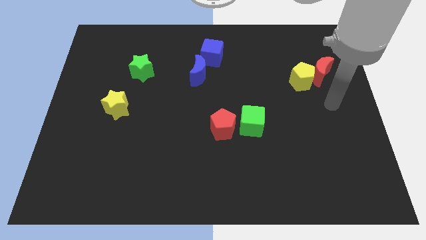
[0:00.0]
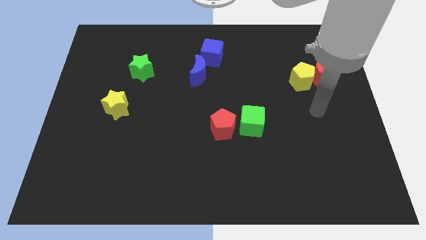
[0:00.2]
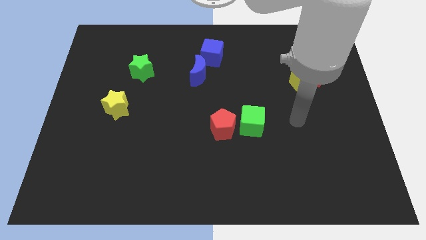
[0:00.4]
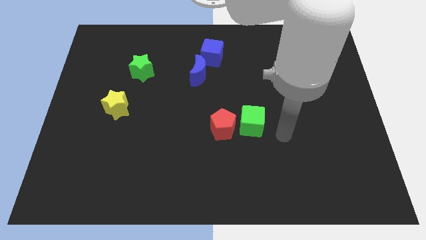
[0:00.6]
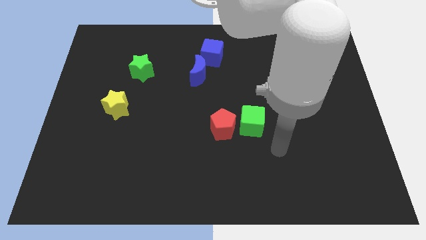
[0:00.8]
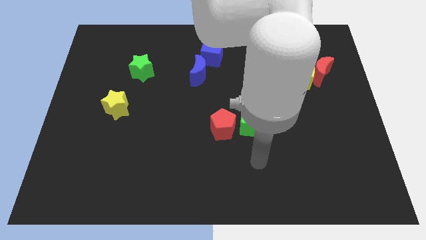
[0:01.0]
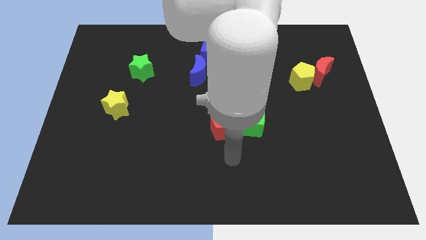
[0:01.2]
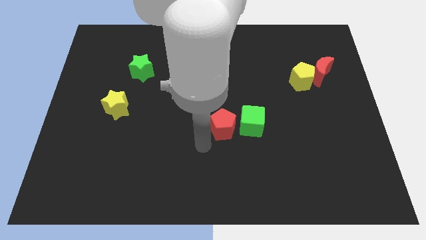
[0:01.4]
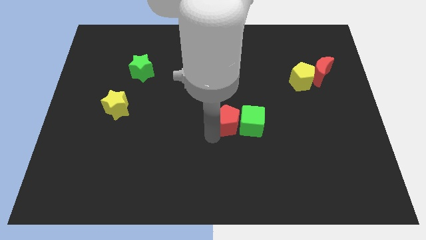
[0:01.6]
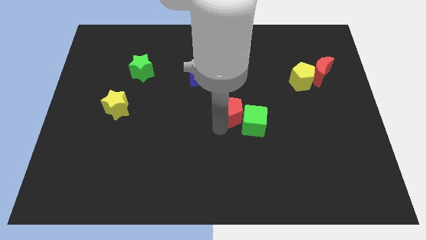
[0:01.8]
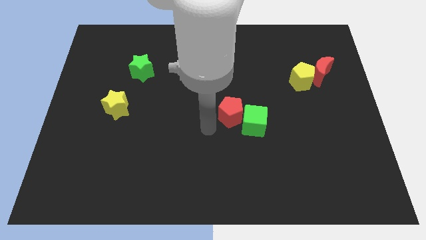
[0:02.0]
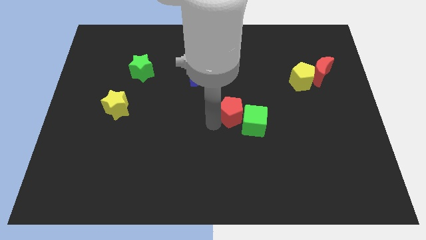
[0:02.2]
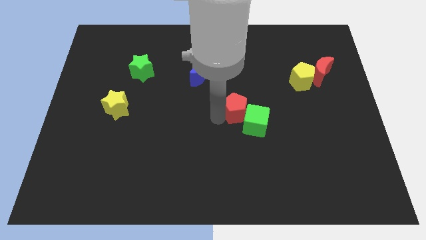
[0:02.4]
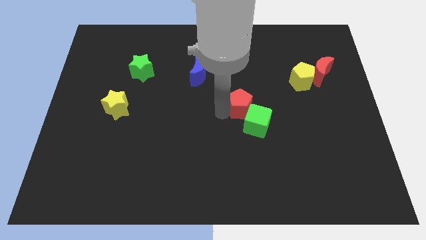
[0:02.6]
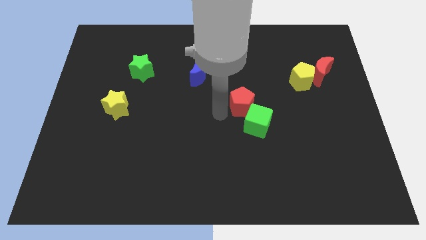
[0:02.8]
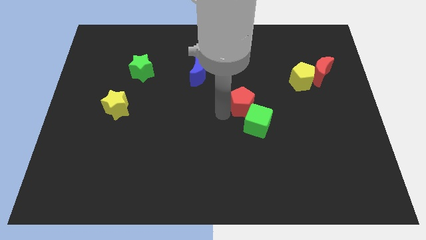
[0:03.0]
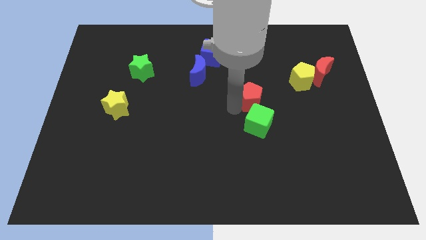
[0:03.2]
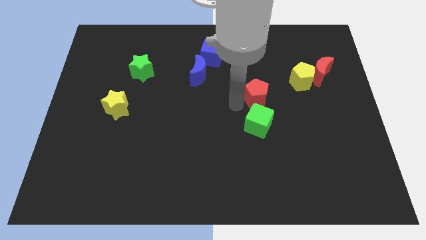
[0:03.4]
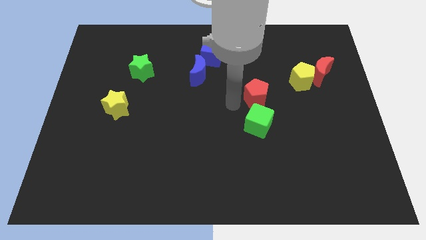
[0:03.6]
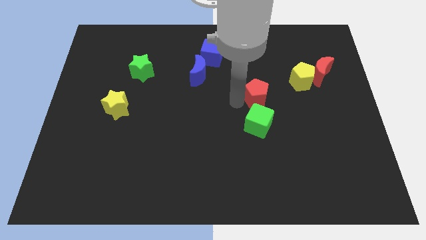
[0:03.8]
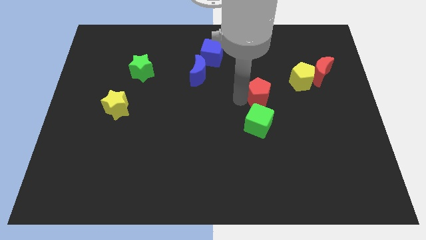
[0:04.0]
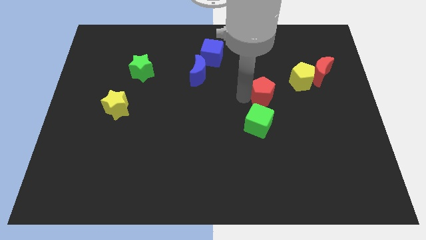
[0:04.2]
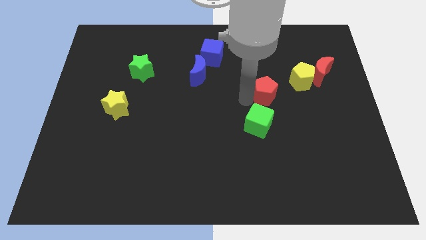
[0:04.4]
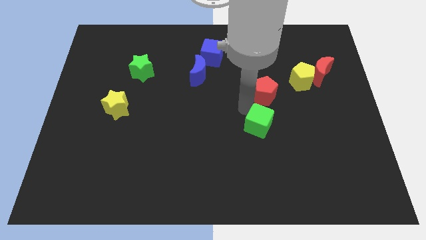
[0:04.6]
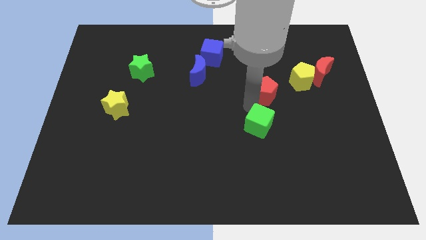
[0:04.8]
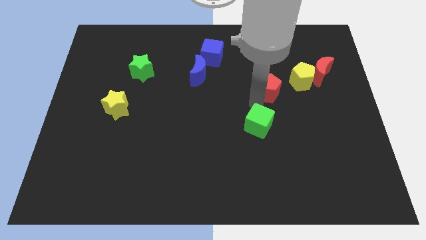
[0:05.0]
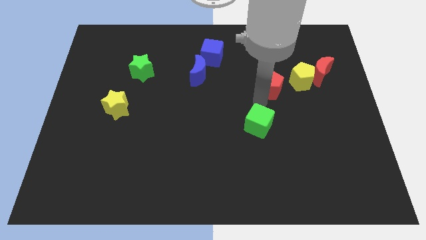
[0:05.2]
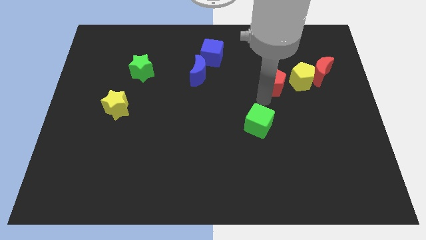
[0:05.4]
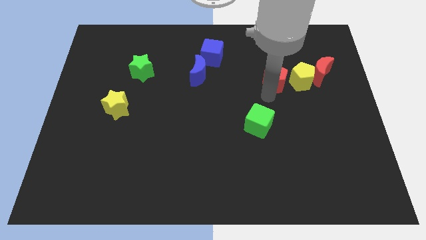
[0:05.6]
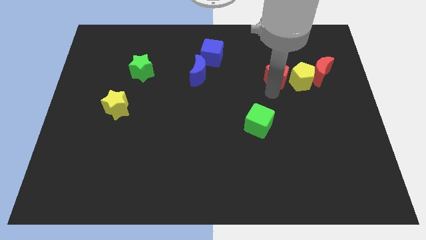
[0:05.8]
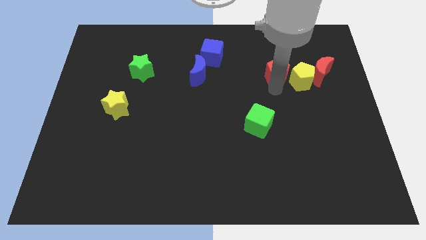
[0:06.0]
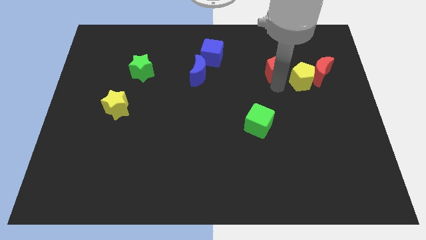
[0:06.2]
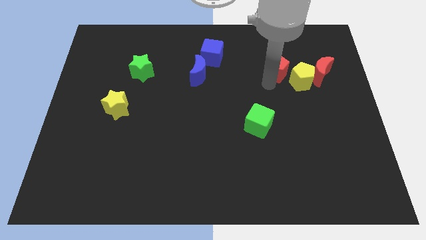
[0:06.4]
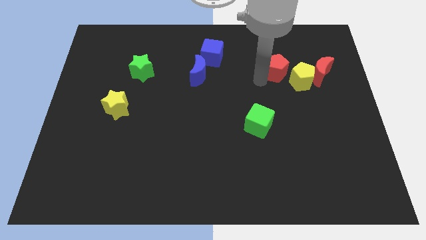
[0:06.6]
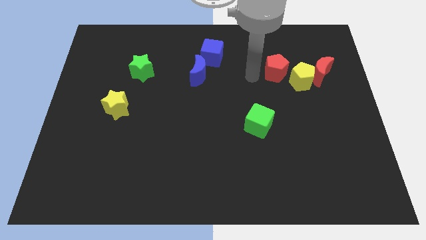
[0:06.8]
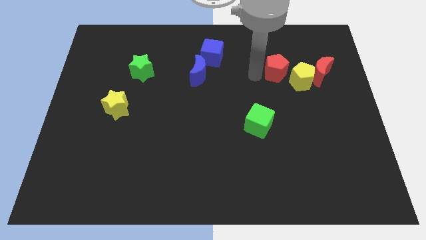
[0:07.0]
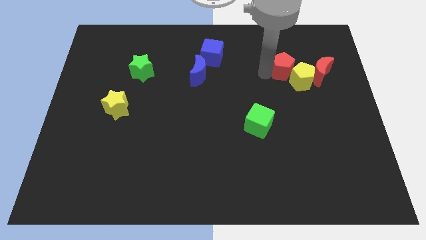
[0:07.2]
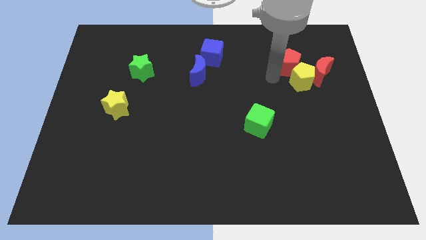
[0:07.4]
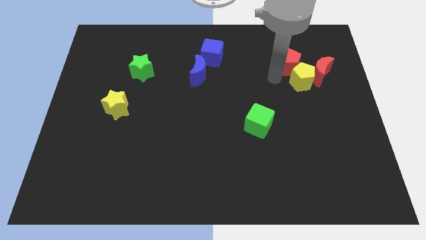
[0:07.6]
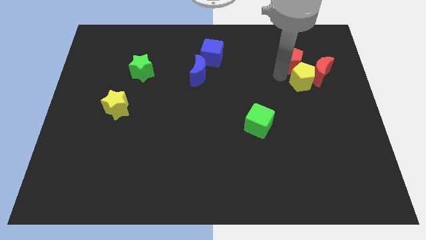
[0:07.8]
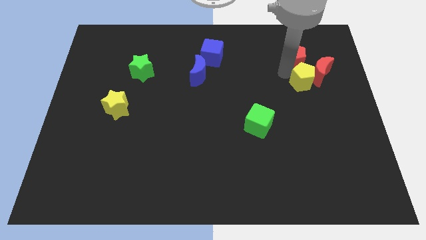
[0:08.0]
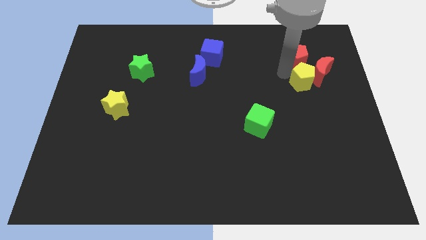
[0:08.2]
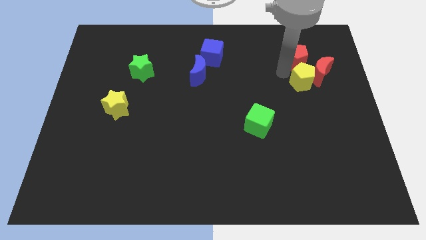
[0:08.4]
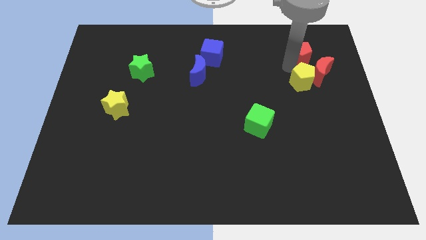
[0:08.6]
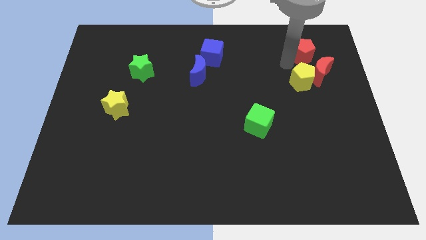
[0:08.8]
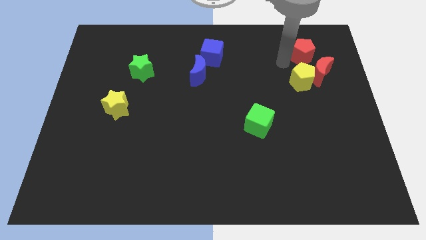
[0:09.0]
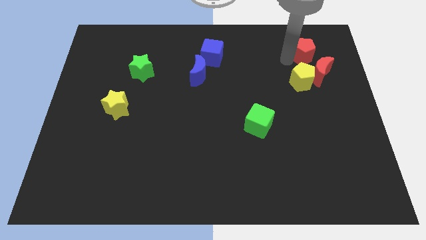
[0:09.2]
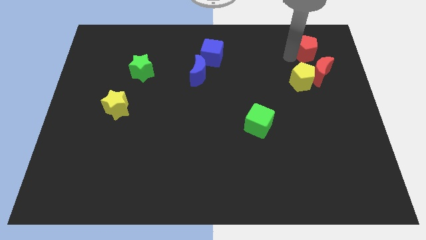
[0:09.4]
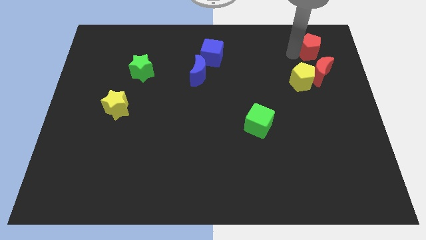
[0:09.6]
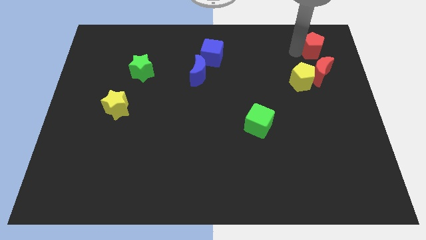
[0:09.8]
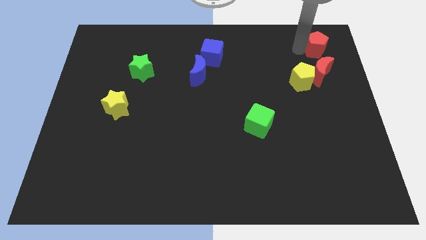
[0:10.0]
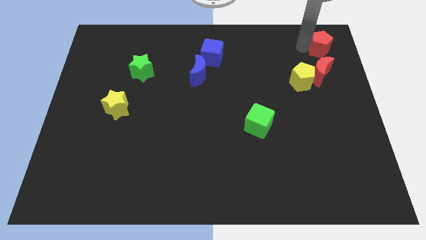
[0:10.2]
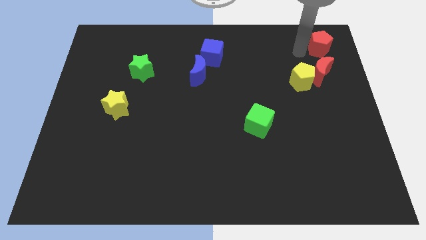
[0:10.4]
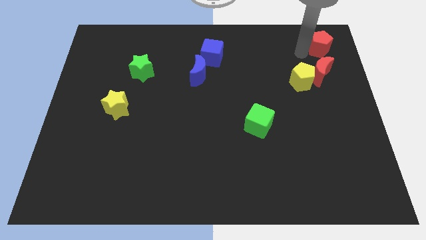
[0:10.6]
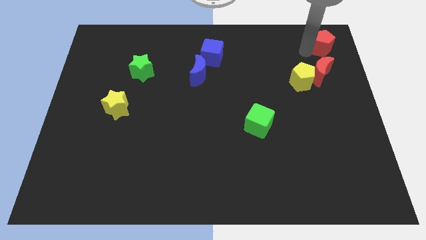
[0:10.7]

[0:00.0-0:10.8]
move the red pentagon to the upper right corner
